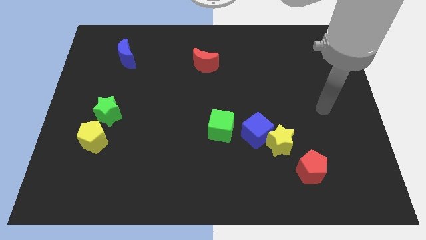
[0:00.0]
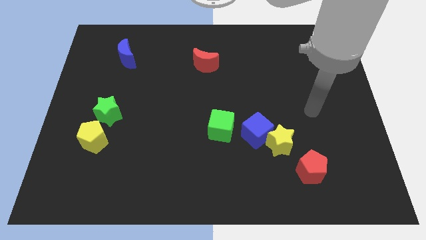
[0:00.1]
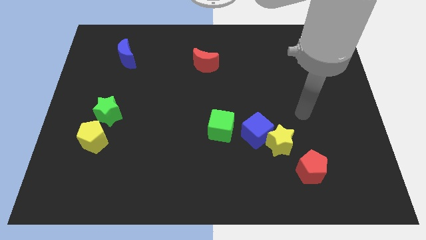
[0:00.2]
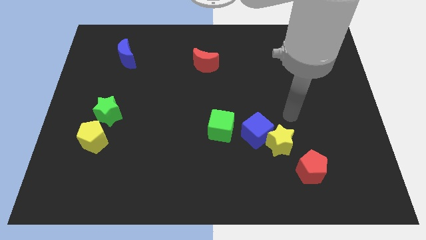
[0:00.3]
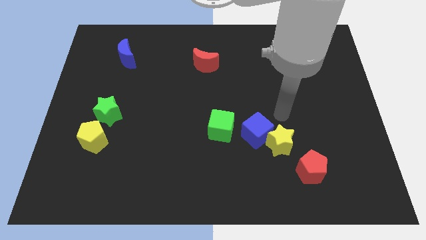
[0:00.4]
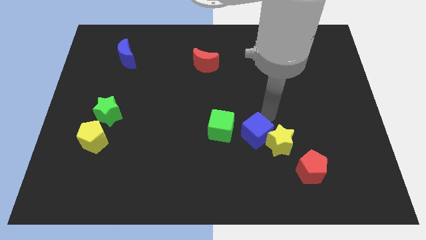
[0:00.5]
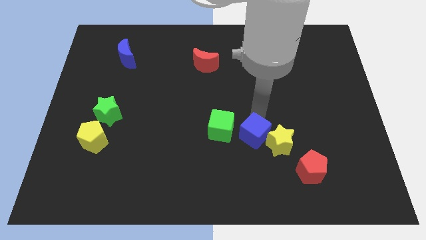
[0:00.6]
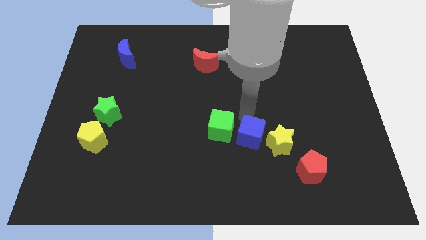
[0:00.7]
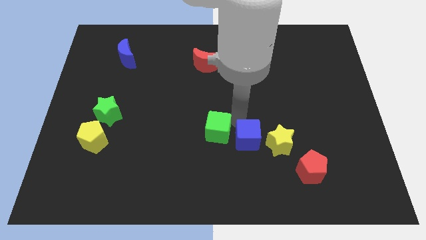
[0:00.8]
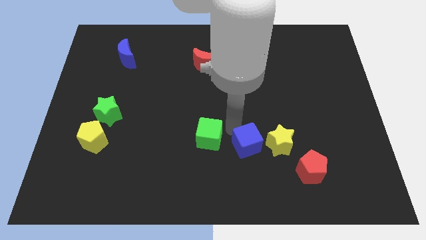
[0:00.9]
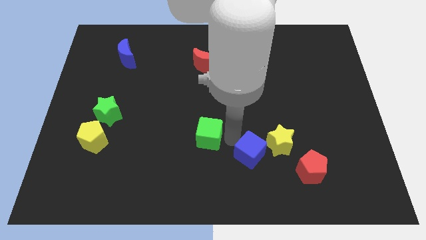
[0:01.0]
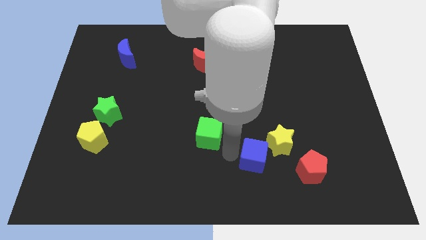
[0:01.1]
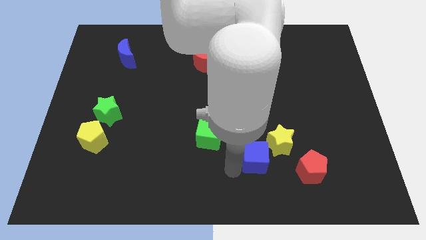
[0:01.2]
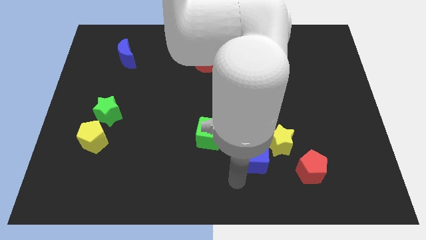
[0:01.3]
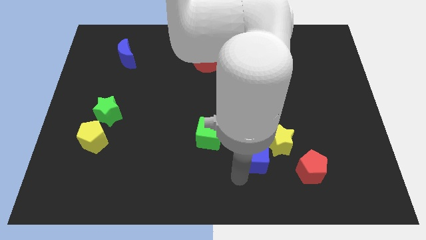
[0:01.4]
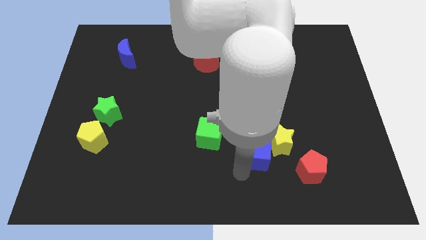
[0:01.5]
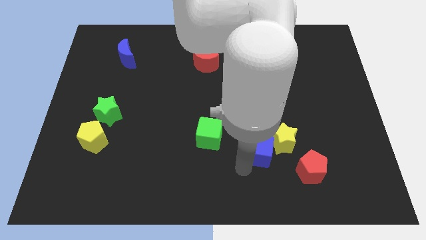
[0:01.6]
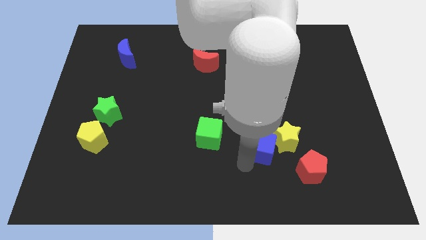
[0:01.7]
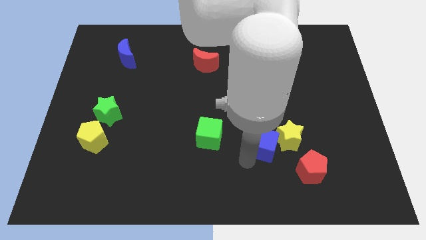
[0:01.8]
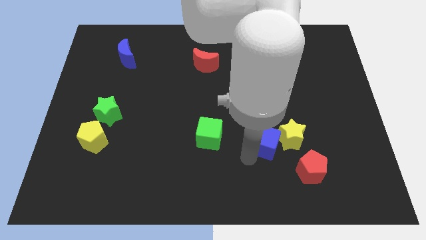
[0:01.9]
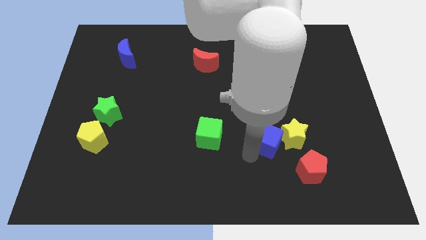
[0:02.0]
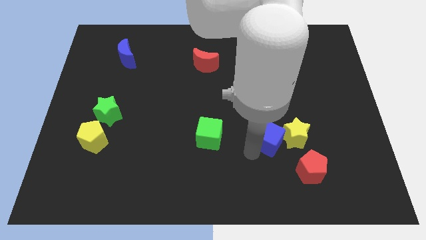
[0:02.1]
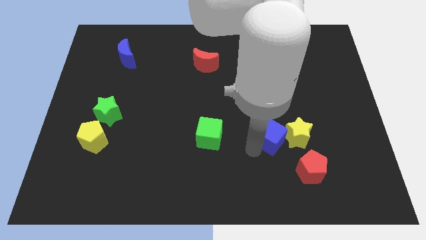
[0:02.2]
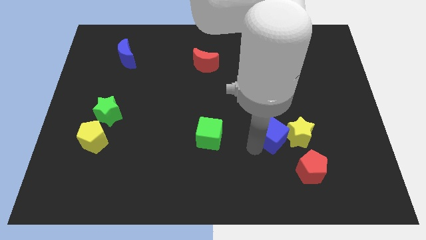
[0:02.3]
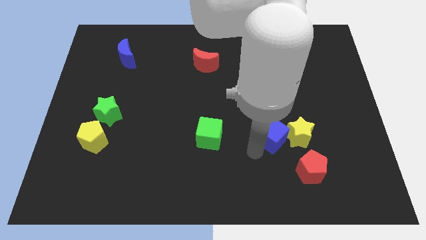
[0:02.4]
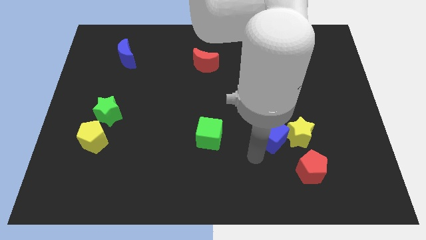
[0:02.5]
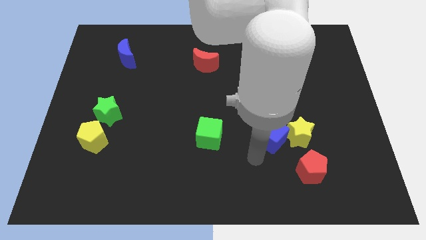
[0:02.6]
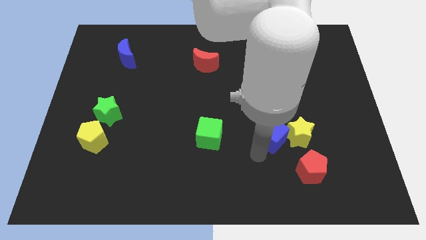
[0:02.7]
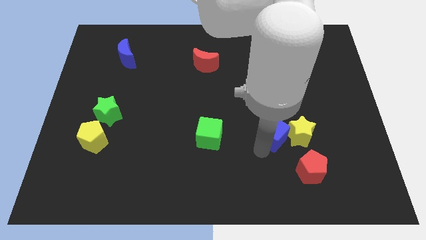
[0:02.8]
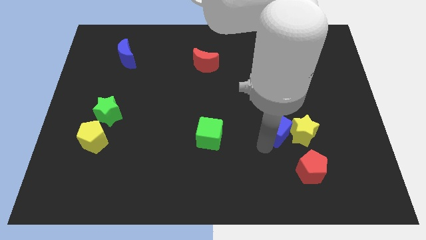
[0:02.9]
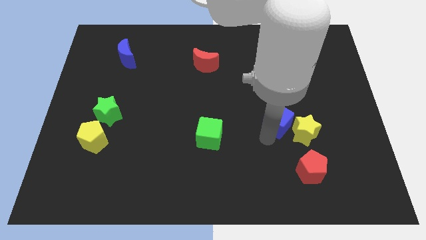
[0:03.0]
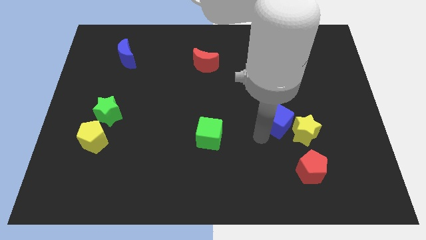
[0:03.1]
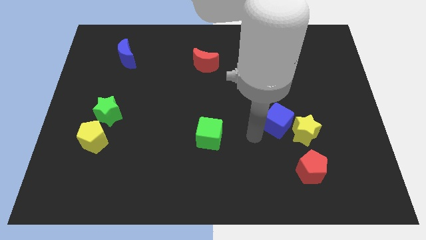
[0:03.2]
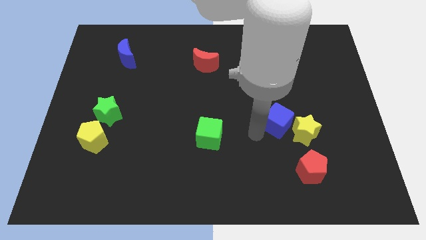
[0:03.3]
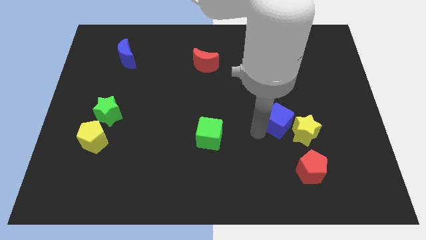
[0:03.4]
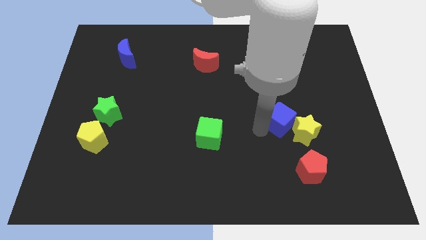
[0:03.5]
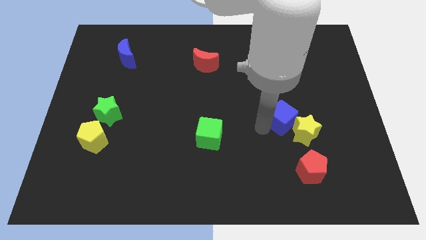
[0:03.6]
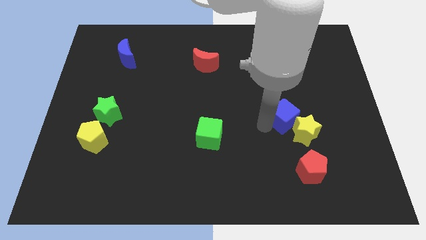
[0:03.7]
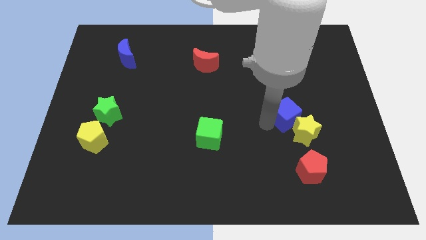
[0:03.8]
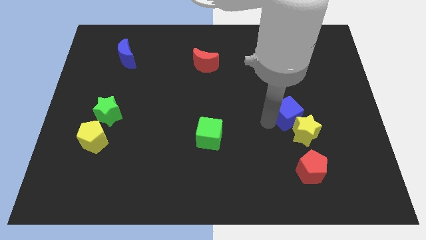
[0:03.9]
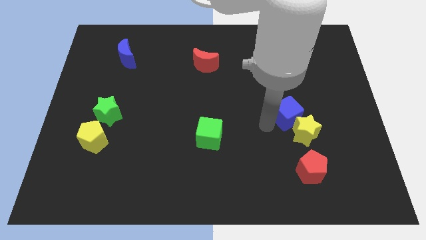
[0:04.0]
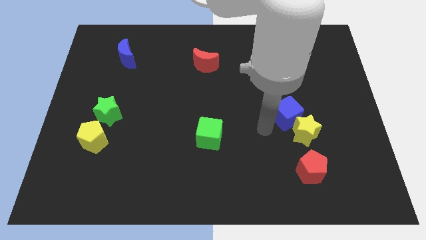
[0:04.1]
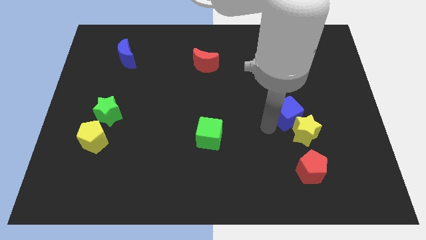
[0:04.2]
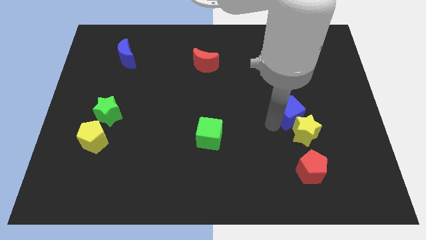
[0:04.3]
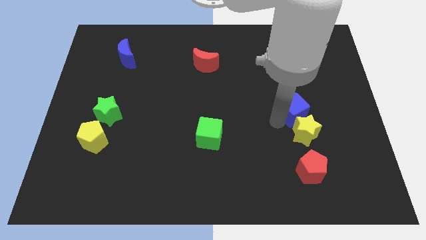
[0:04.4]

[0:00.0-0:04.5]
move the blue cube away from the yellow star and green cube

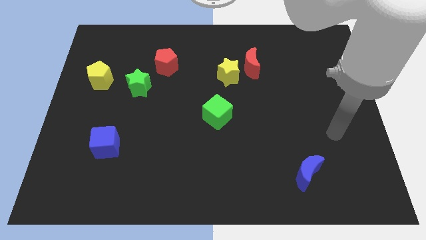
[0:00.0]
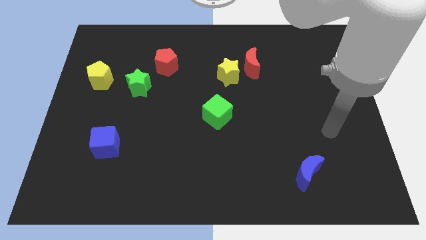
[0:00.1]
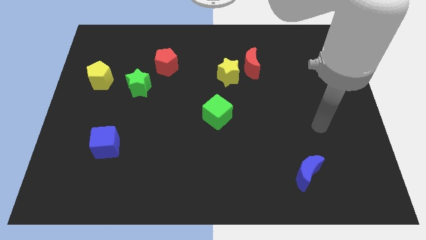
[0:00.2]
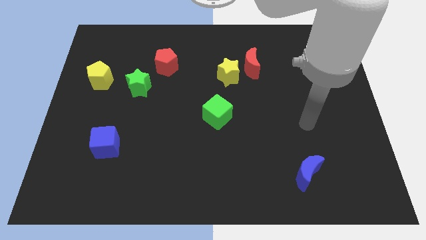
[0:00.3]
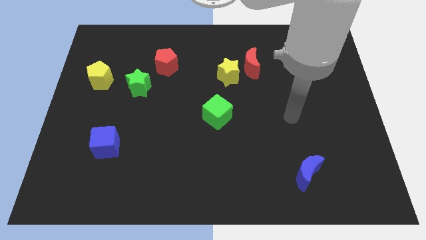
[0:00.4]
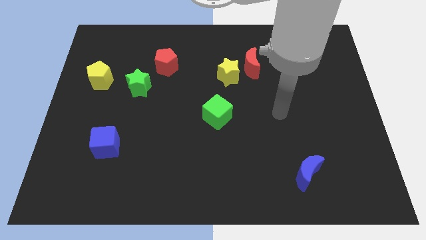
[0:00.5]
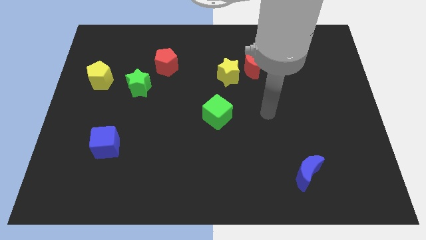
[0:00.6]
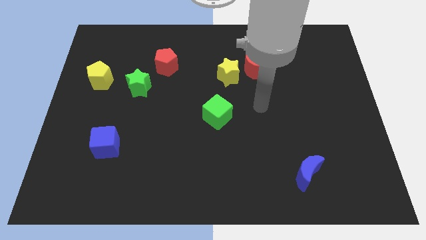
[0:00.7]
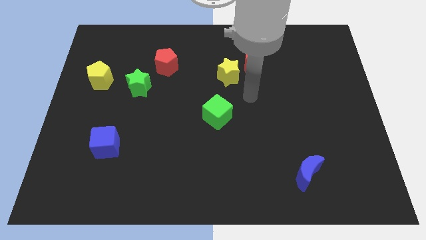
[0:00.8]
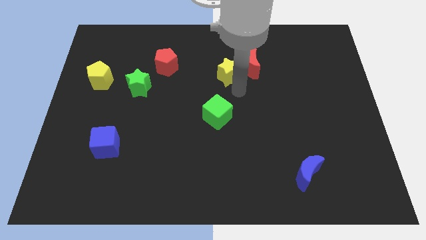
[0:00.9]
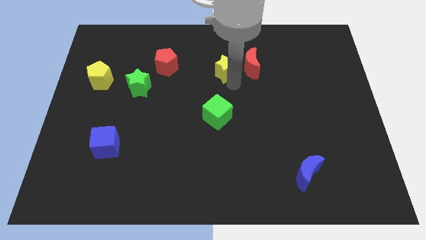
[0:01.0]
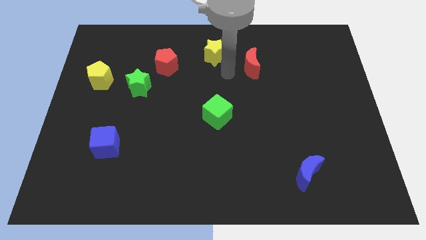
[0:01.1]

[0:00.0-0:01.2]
move the red moon away from the yellow star

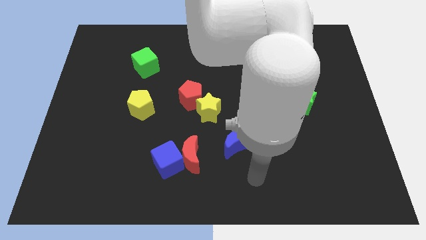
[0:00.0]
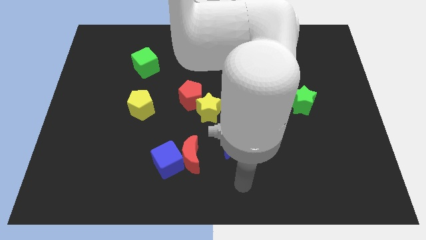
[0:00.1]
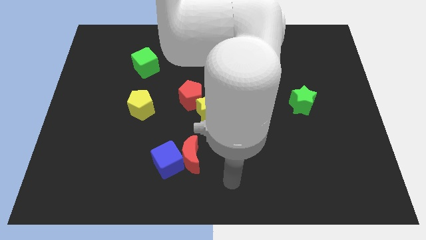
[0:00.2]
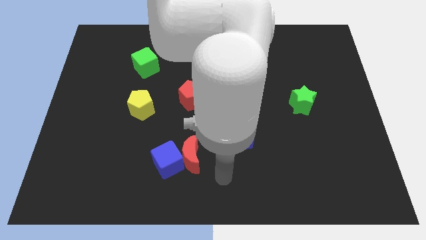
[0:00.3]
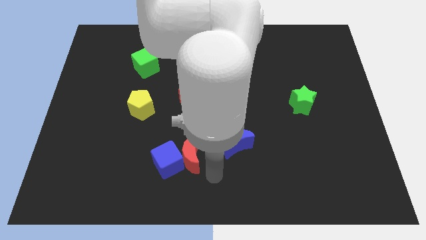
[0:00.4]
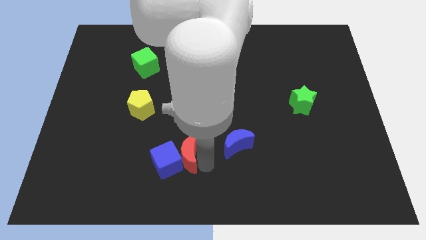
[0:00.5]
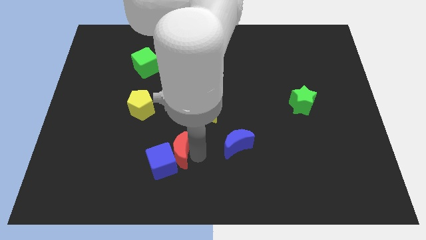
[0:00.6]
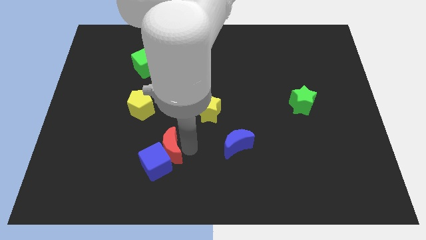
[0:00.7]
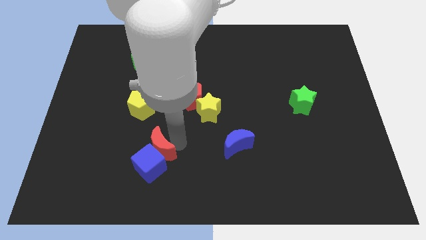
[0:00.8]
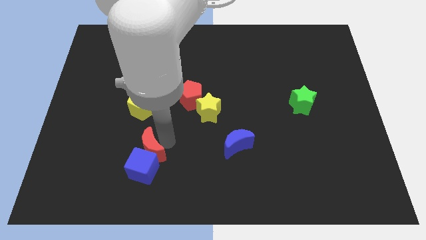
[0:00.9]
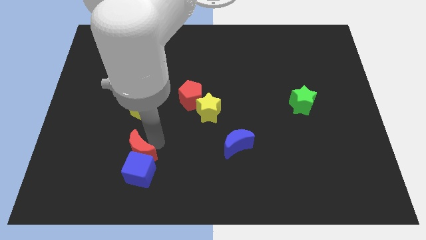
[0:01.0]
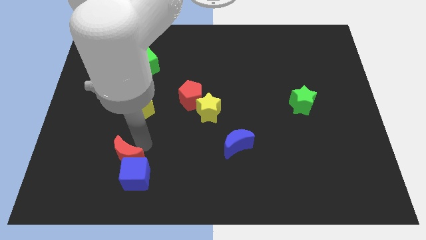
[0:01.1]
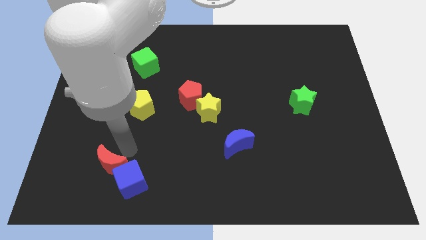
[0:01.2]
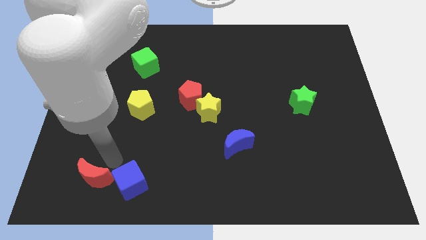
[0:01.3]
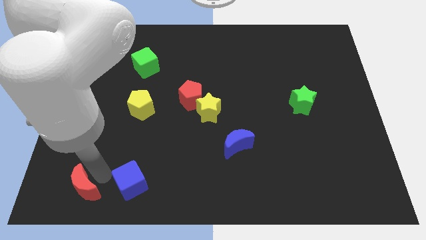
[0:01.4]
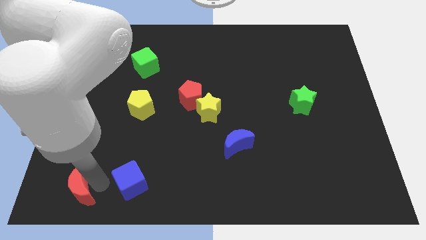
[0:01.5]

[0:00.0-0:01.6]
separate the blue cube from the red moon

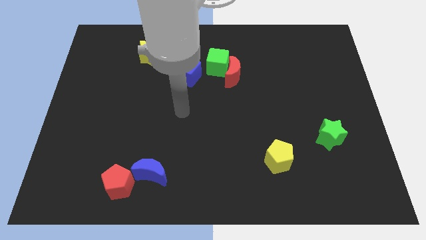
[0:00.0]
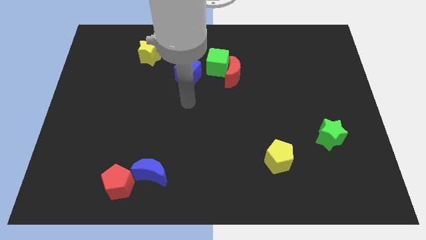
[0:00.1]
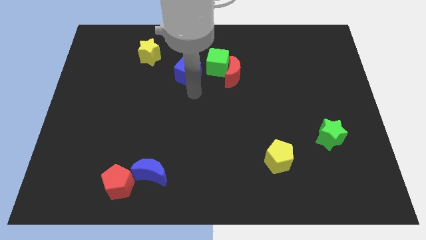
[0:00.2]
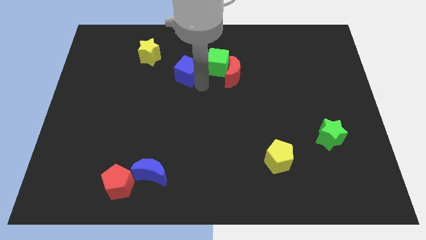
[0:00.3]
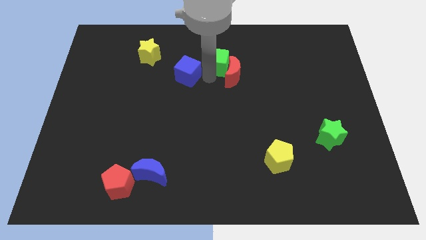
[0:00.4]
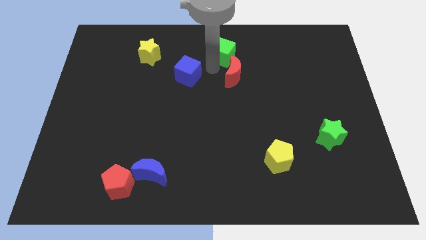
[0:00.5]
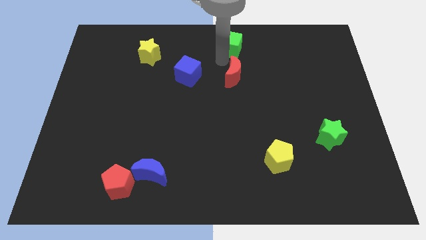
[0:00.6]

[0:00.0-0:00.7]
move the red moon away from the green cube

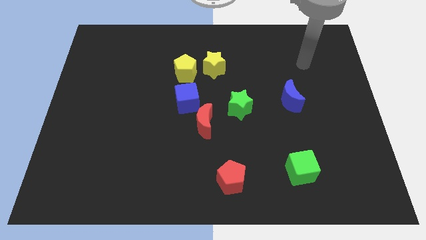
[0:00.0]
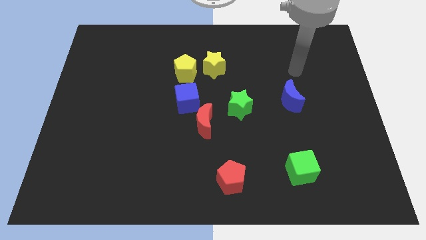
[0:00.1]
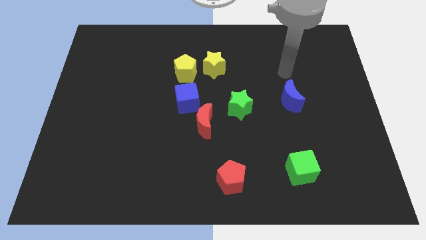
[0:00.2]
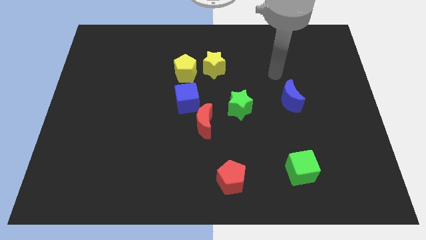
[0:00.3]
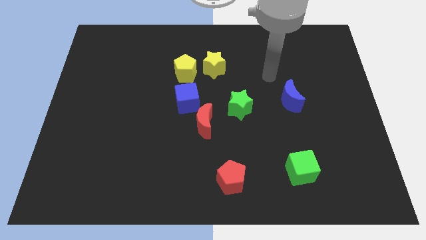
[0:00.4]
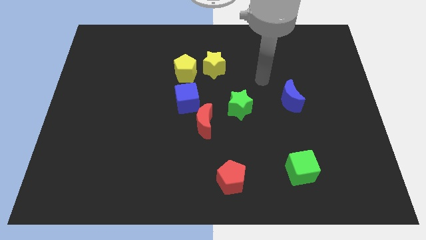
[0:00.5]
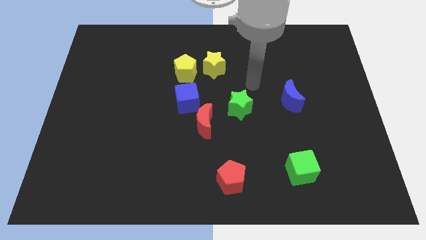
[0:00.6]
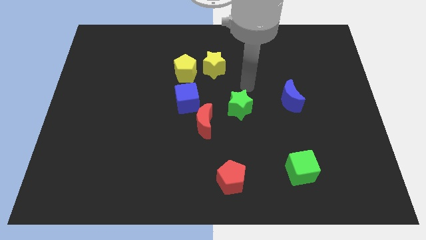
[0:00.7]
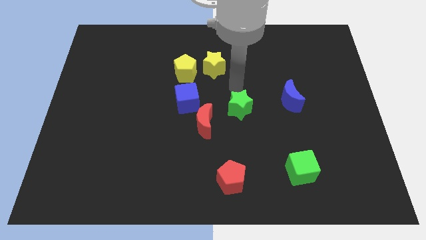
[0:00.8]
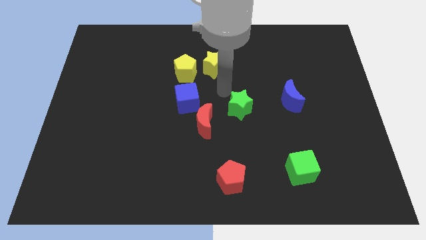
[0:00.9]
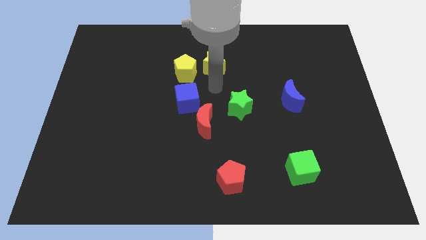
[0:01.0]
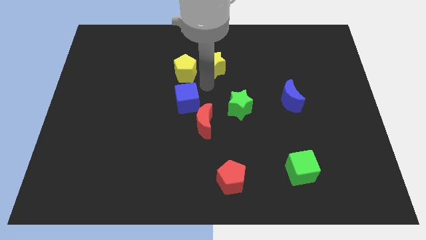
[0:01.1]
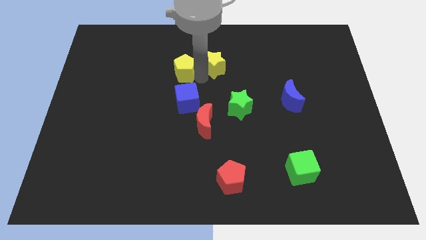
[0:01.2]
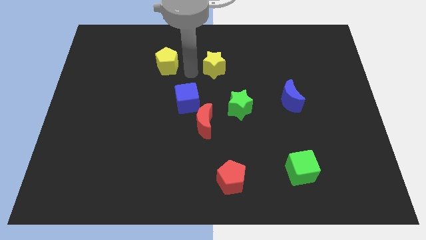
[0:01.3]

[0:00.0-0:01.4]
move the yellow star away from the yellow pentagon
